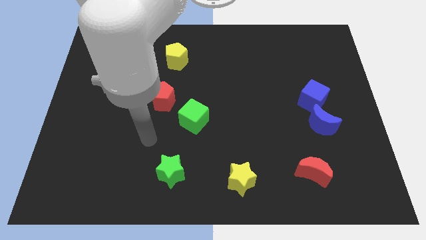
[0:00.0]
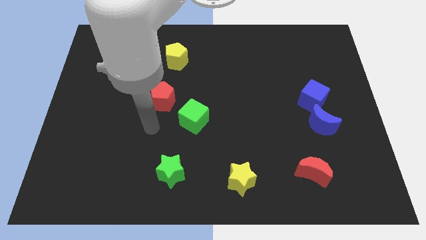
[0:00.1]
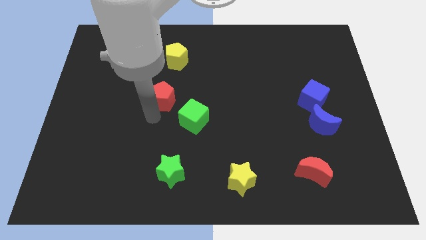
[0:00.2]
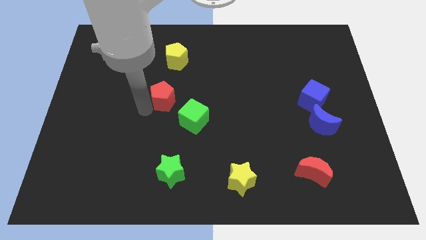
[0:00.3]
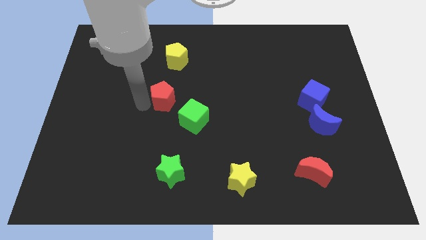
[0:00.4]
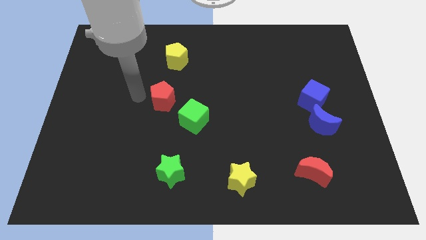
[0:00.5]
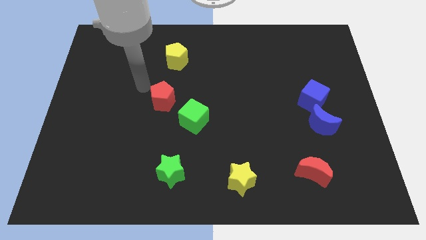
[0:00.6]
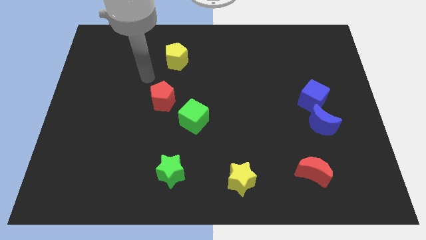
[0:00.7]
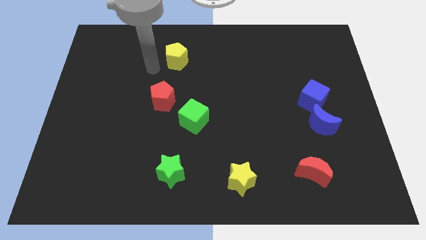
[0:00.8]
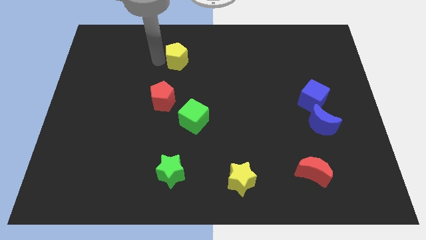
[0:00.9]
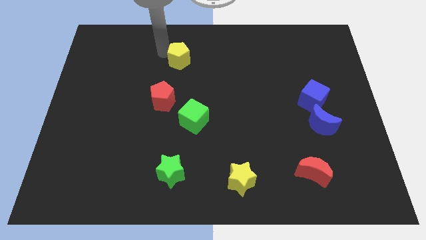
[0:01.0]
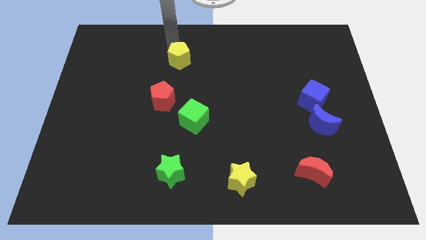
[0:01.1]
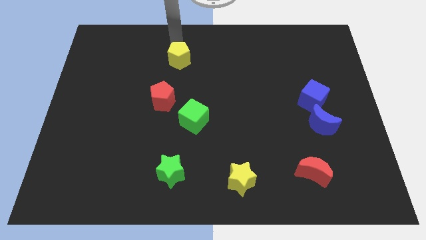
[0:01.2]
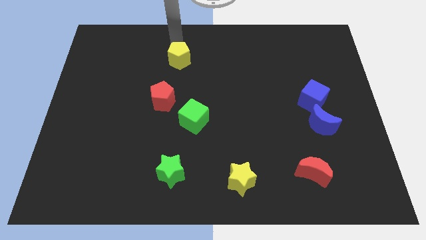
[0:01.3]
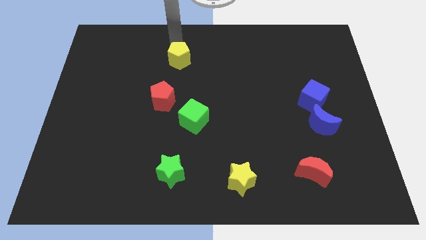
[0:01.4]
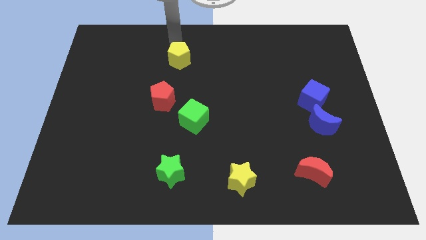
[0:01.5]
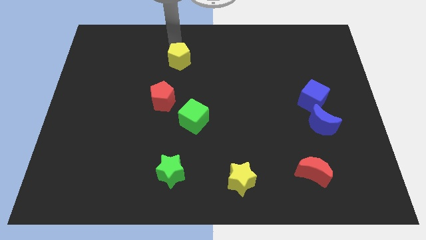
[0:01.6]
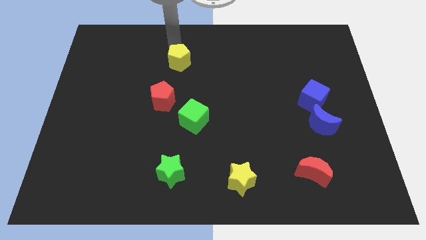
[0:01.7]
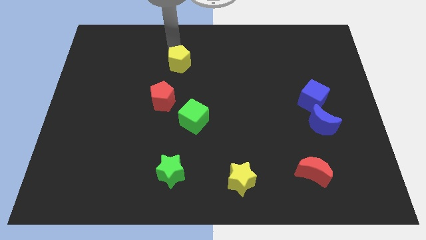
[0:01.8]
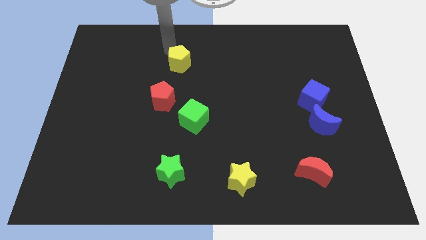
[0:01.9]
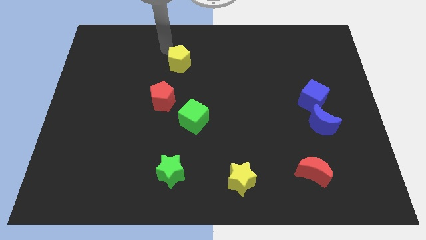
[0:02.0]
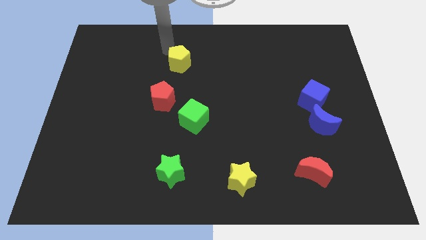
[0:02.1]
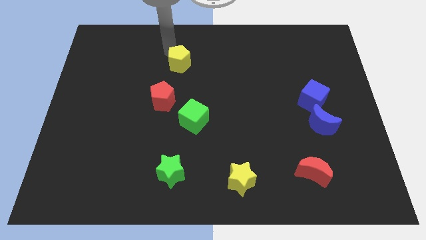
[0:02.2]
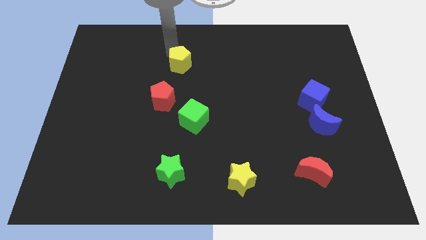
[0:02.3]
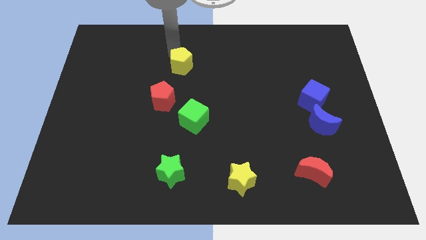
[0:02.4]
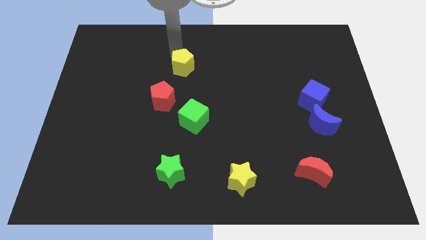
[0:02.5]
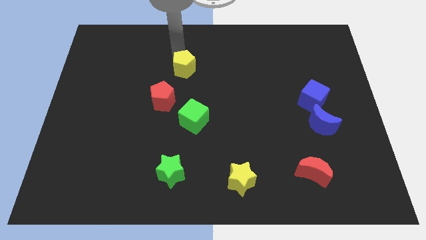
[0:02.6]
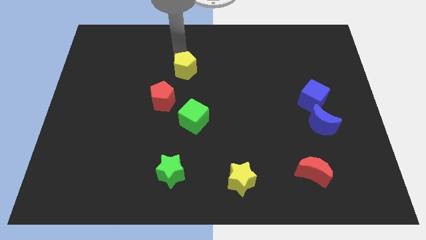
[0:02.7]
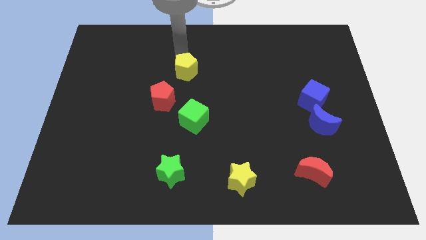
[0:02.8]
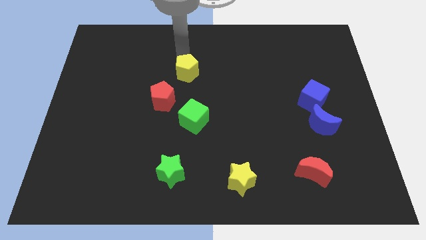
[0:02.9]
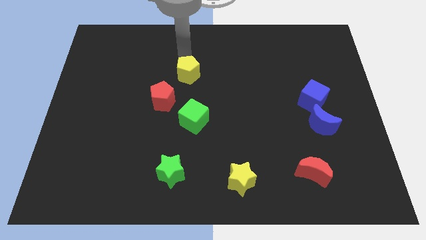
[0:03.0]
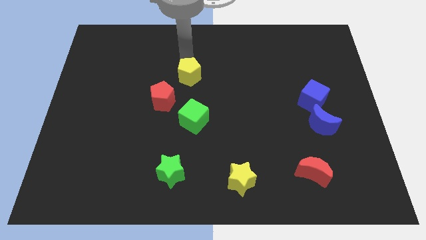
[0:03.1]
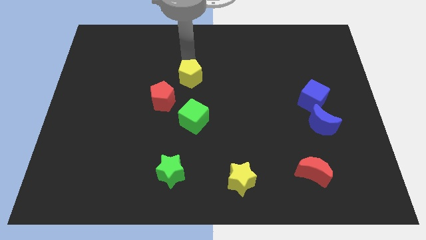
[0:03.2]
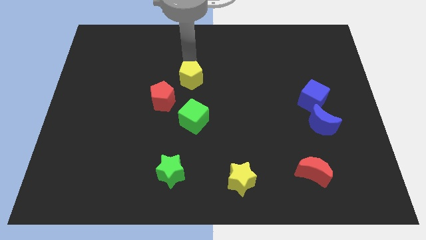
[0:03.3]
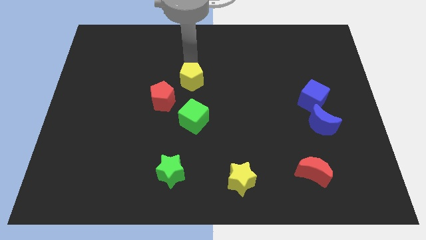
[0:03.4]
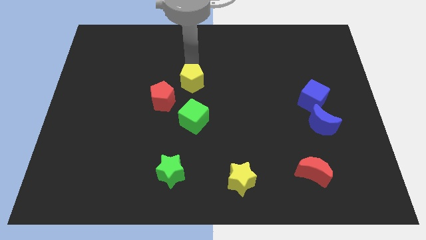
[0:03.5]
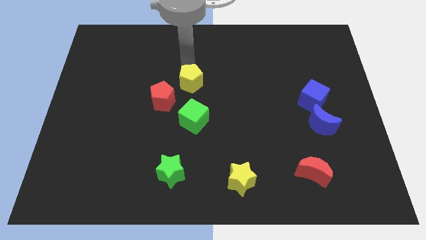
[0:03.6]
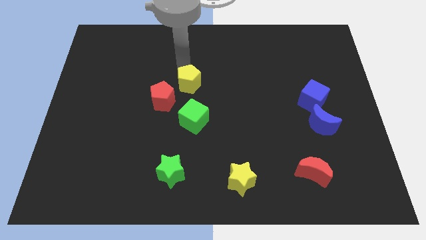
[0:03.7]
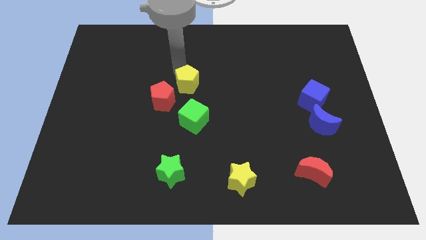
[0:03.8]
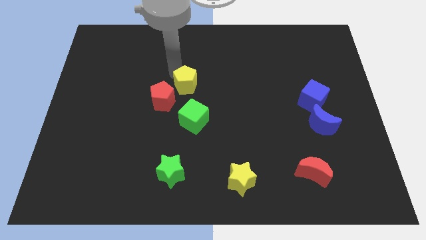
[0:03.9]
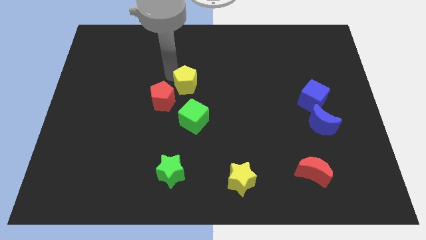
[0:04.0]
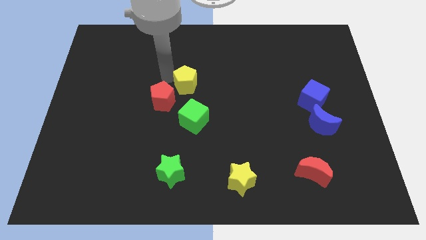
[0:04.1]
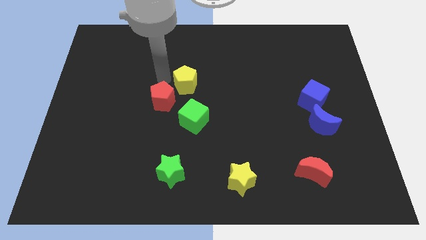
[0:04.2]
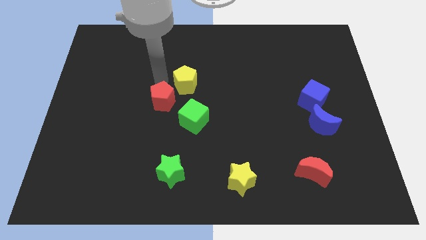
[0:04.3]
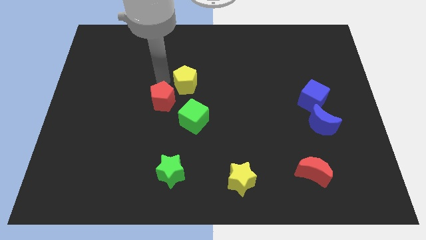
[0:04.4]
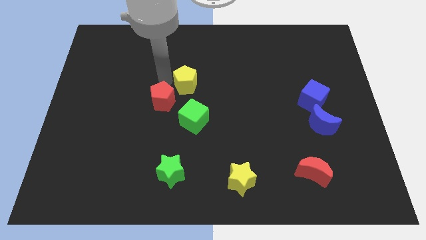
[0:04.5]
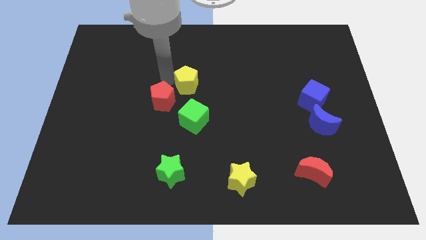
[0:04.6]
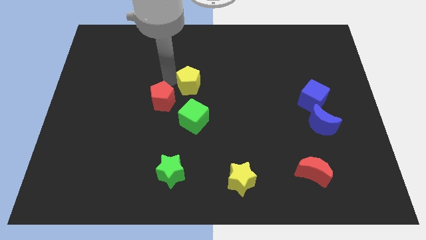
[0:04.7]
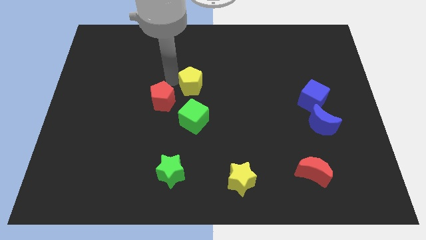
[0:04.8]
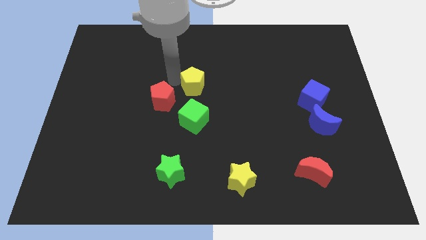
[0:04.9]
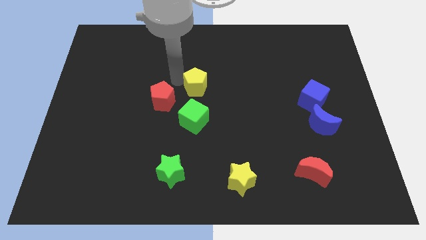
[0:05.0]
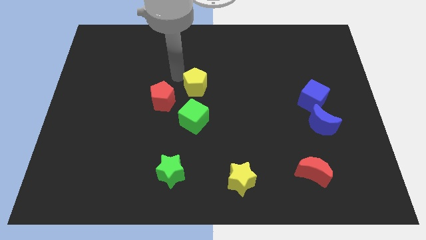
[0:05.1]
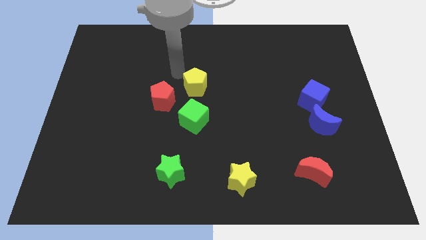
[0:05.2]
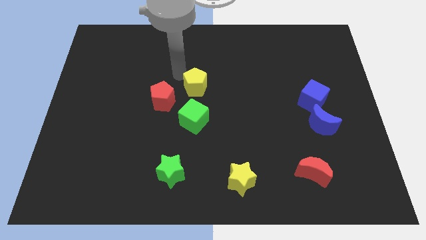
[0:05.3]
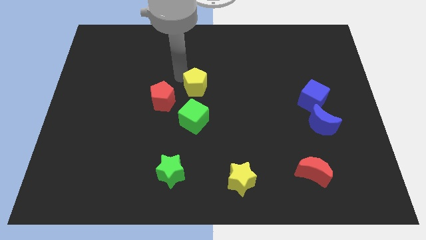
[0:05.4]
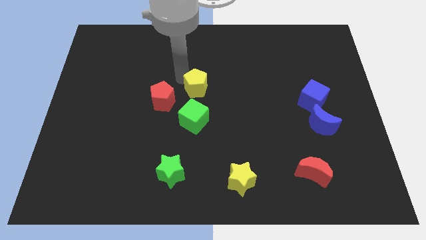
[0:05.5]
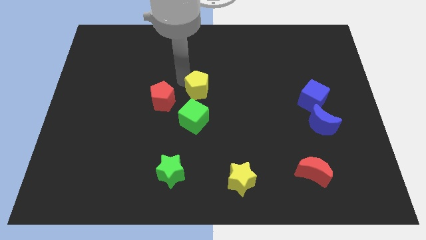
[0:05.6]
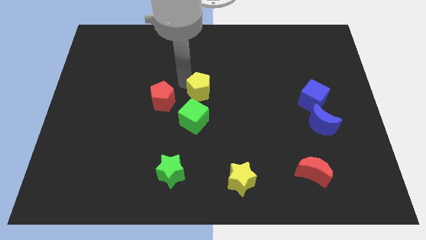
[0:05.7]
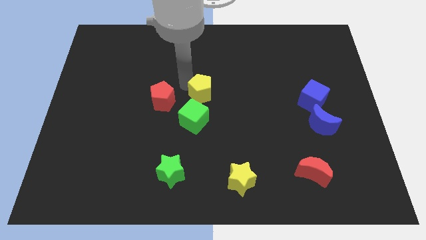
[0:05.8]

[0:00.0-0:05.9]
slide the yellow pentagon to the top right of the green cube

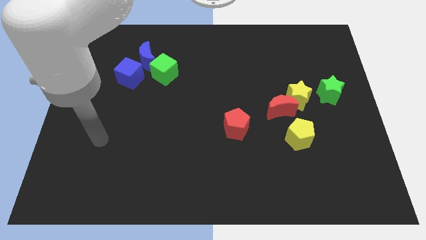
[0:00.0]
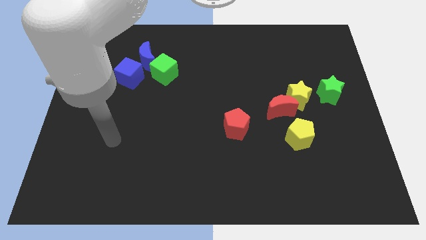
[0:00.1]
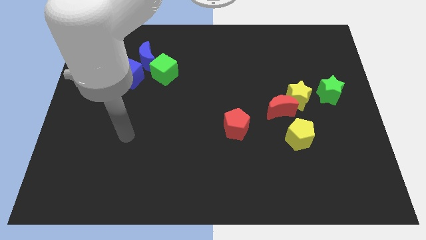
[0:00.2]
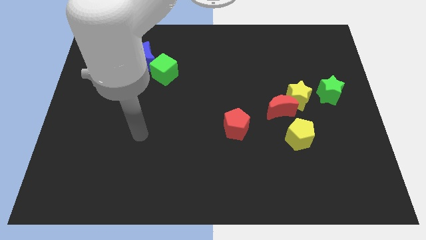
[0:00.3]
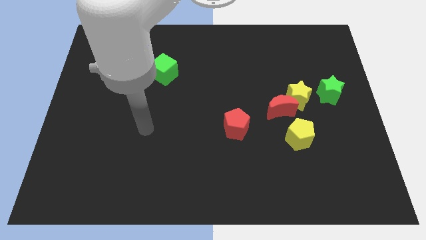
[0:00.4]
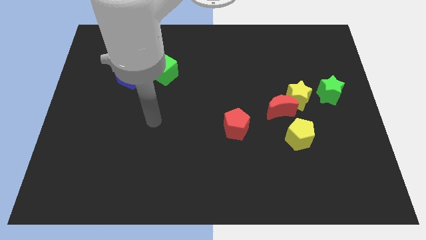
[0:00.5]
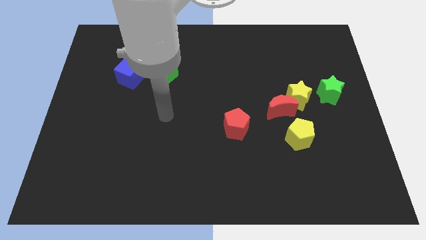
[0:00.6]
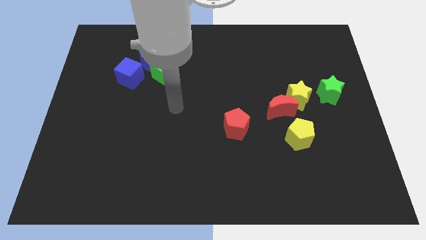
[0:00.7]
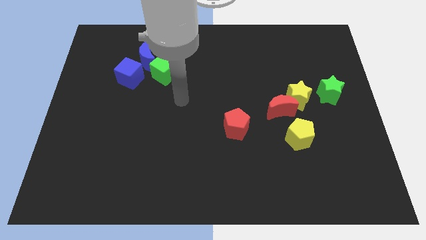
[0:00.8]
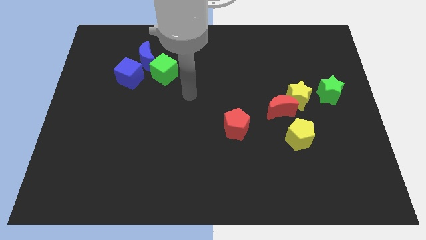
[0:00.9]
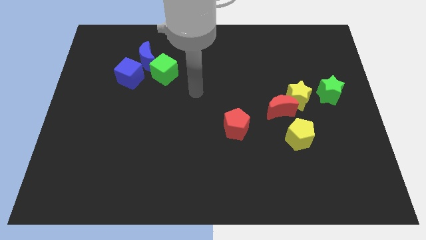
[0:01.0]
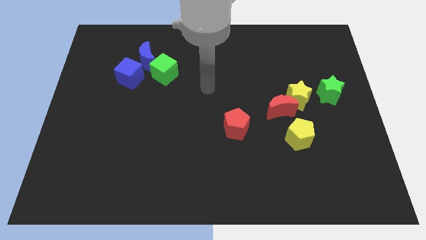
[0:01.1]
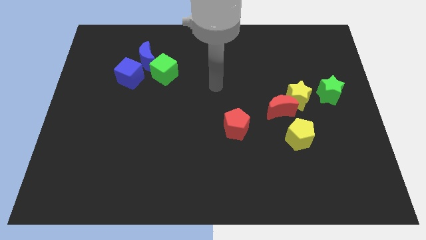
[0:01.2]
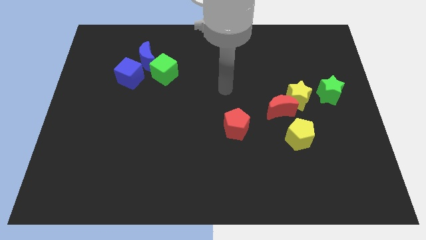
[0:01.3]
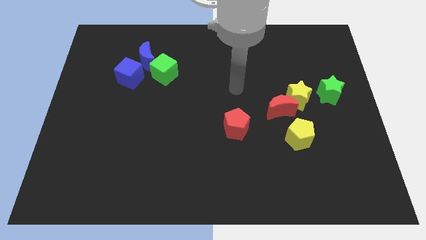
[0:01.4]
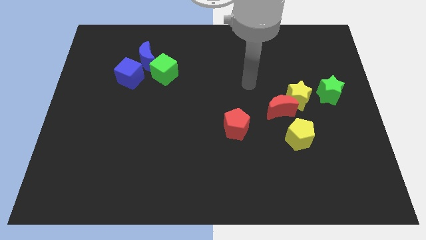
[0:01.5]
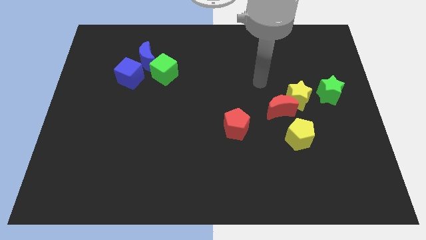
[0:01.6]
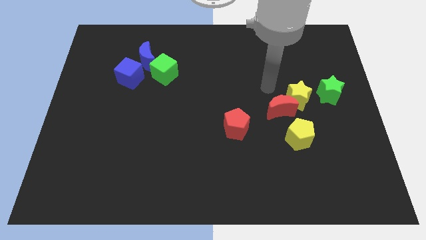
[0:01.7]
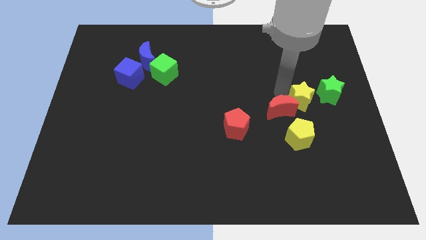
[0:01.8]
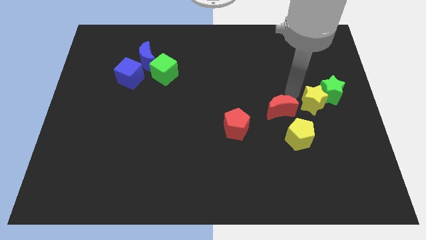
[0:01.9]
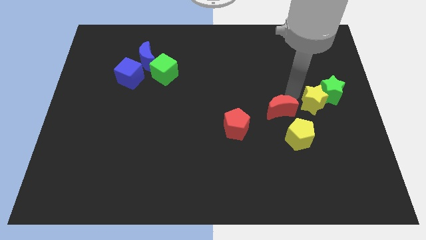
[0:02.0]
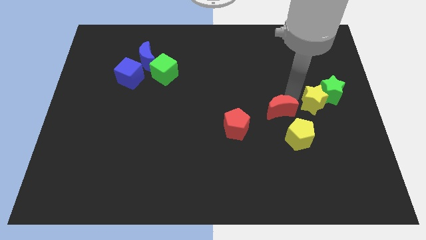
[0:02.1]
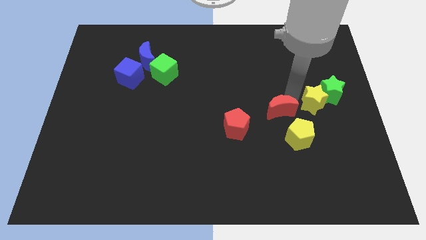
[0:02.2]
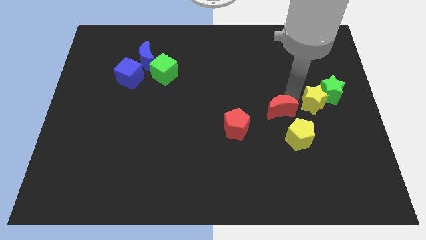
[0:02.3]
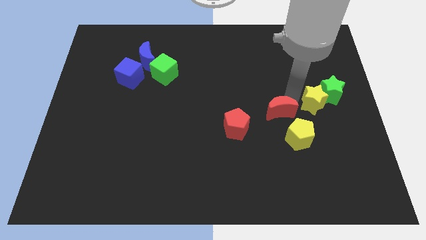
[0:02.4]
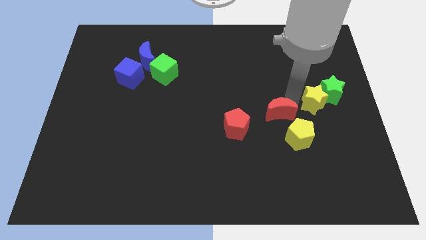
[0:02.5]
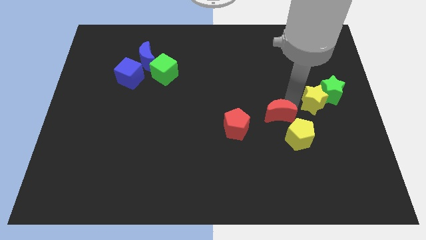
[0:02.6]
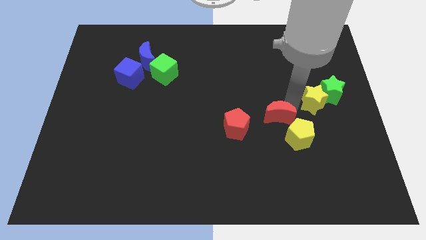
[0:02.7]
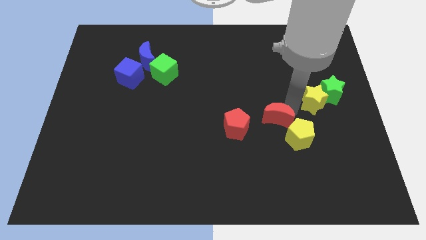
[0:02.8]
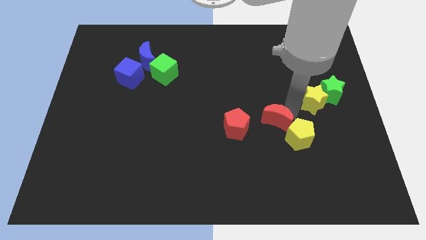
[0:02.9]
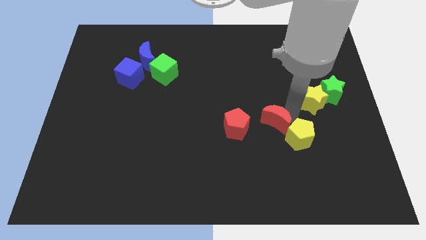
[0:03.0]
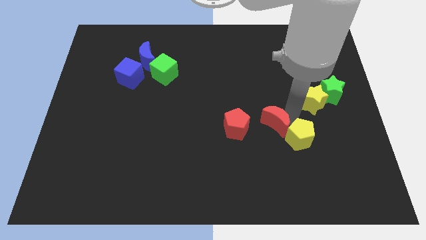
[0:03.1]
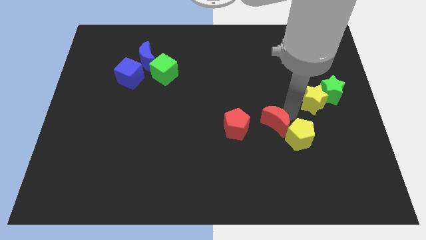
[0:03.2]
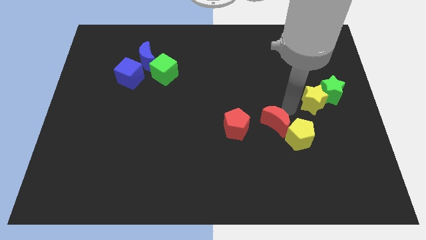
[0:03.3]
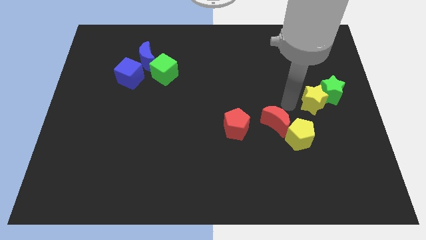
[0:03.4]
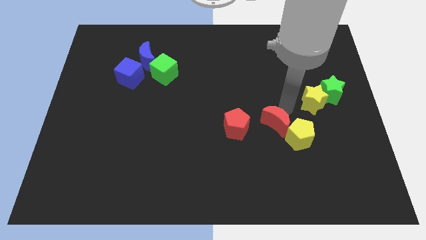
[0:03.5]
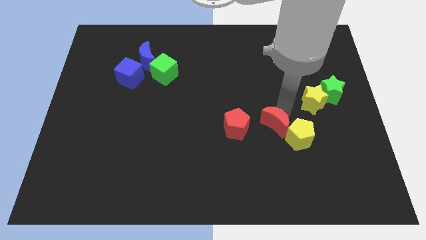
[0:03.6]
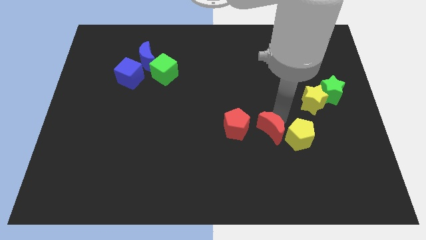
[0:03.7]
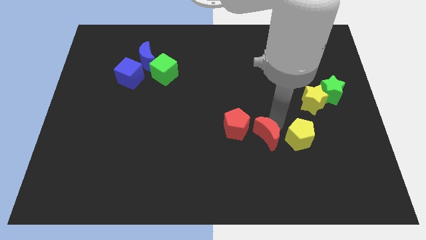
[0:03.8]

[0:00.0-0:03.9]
slide the red moon diagonally down and to the right of the red pentagon
